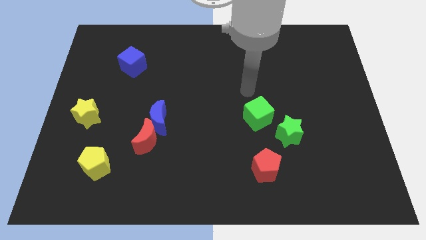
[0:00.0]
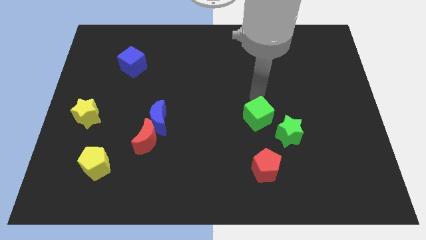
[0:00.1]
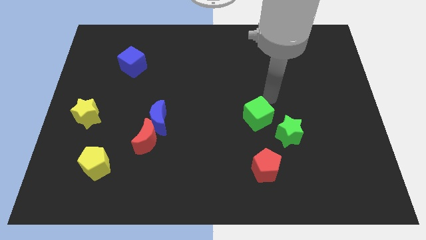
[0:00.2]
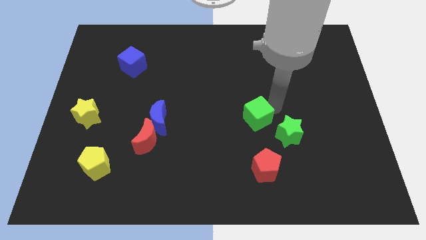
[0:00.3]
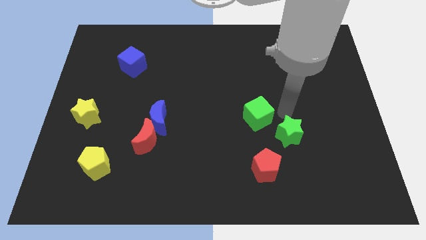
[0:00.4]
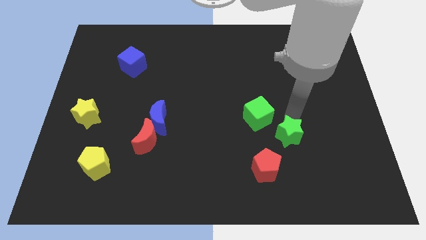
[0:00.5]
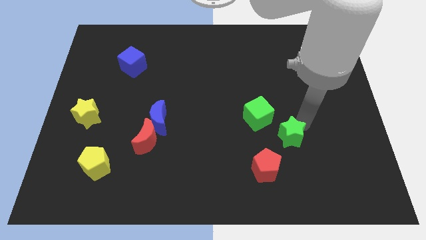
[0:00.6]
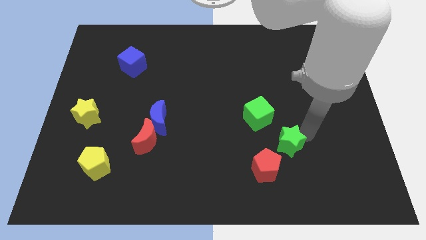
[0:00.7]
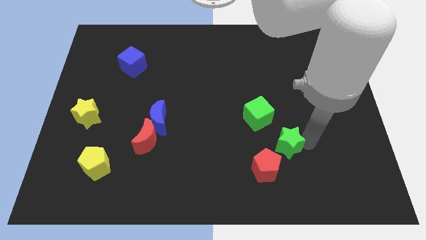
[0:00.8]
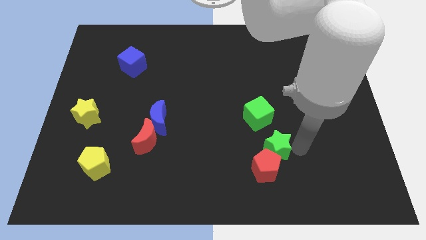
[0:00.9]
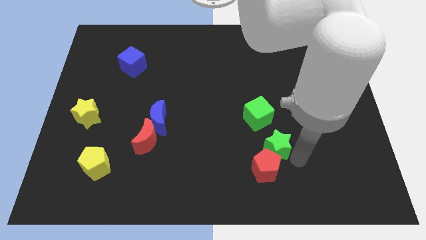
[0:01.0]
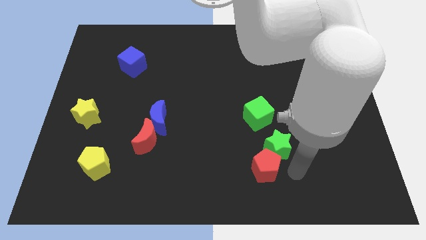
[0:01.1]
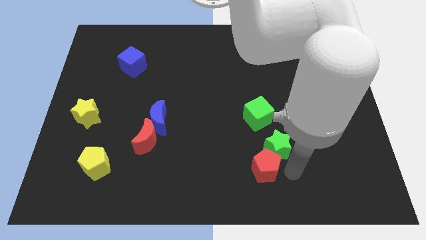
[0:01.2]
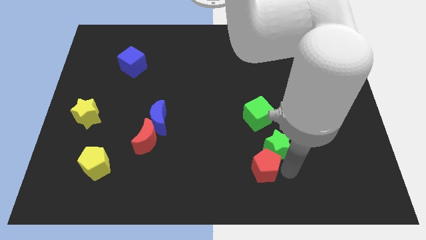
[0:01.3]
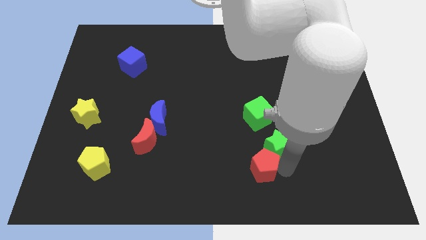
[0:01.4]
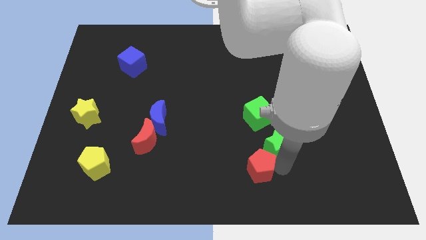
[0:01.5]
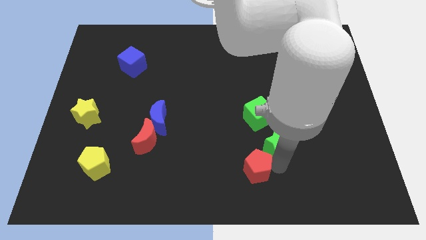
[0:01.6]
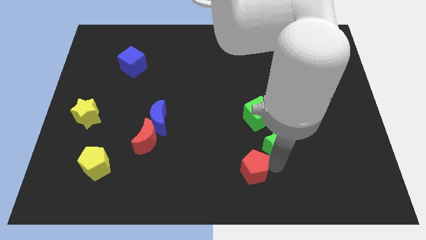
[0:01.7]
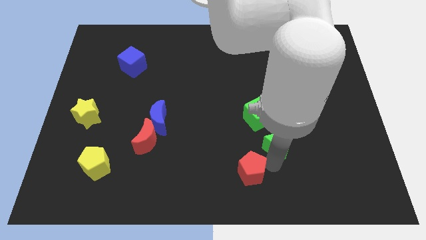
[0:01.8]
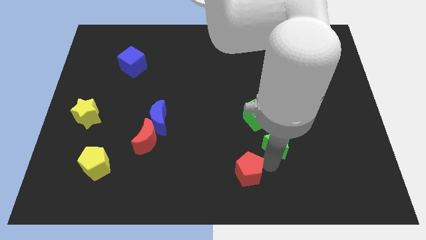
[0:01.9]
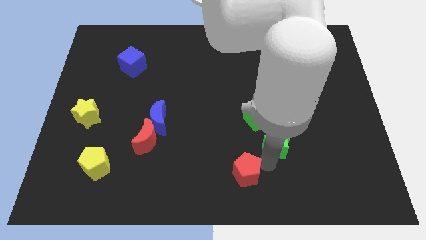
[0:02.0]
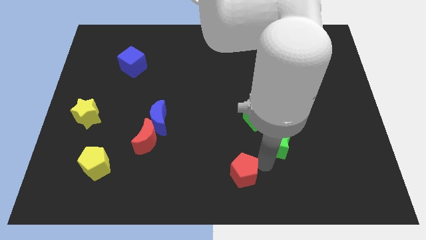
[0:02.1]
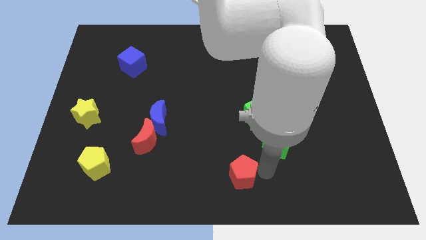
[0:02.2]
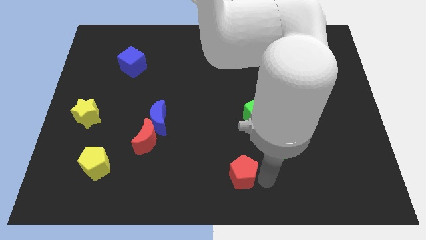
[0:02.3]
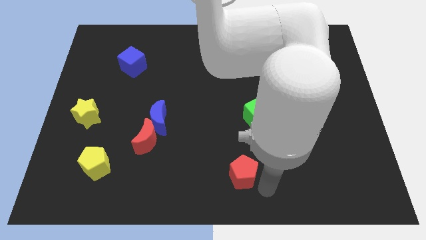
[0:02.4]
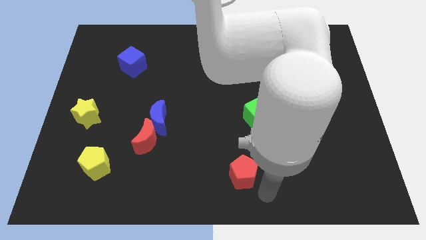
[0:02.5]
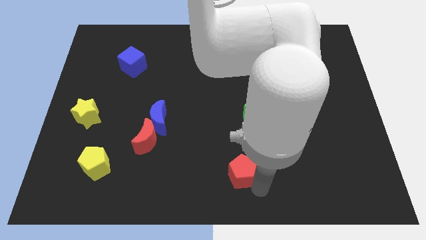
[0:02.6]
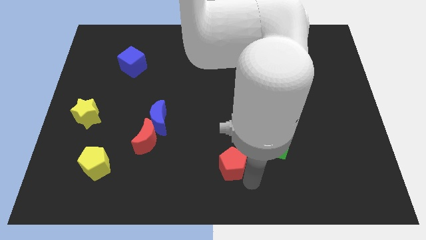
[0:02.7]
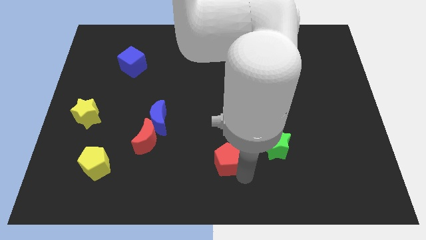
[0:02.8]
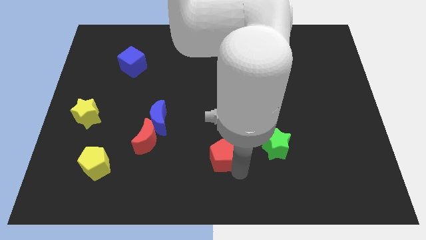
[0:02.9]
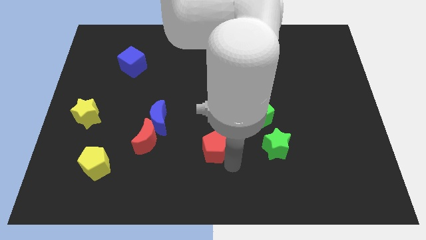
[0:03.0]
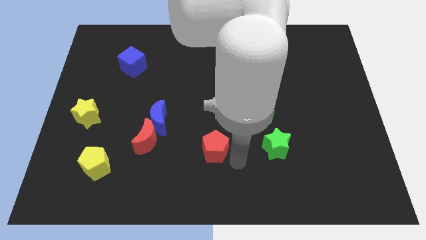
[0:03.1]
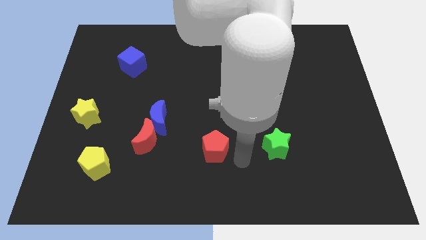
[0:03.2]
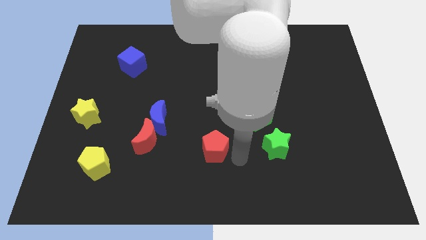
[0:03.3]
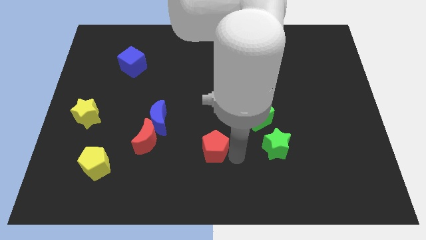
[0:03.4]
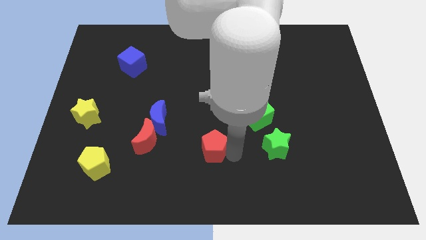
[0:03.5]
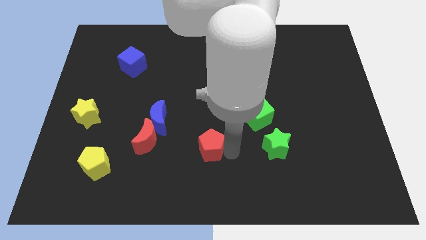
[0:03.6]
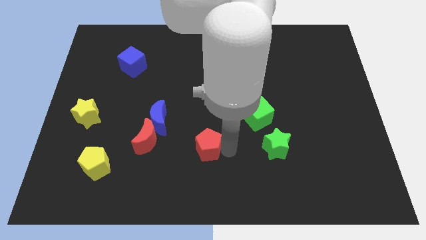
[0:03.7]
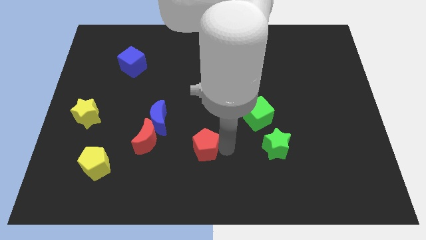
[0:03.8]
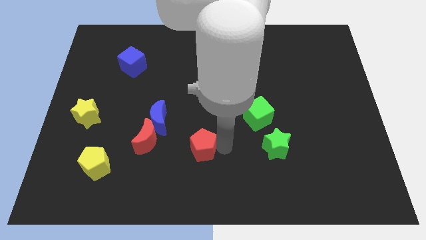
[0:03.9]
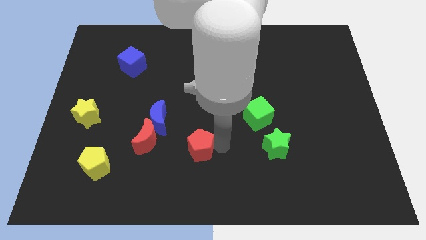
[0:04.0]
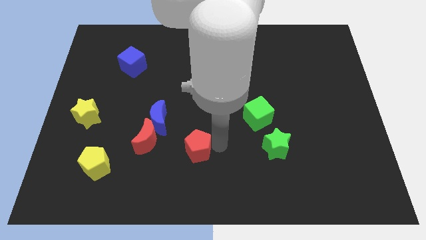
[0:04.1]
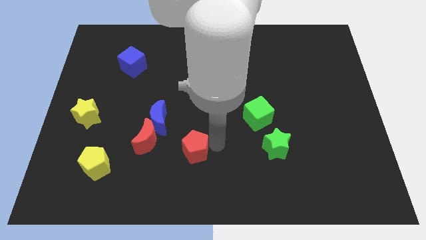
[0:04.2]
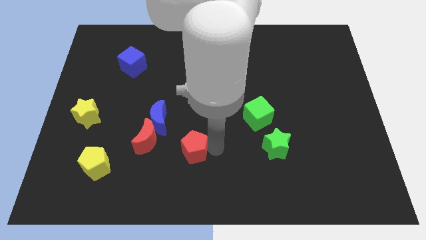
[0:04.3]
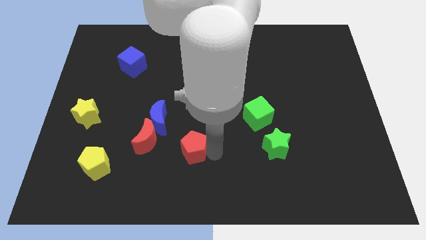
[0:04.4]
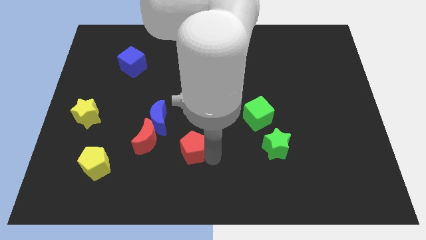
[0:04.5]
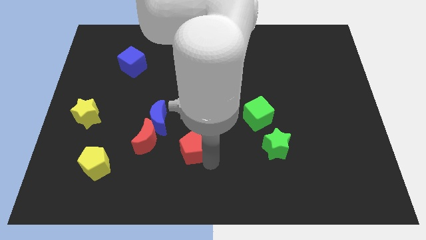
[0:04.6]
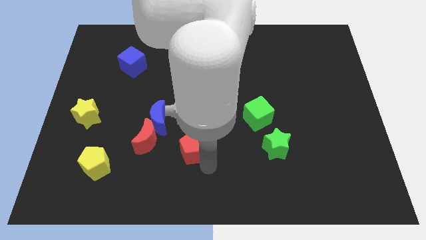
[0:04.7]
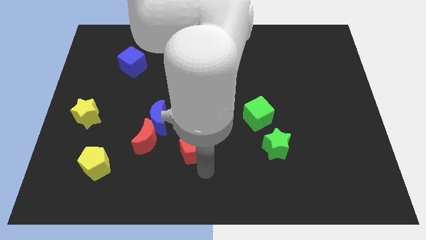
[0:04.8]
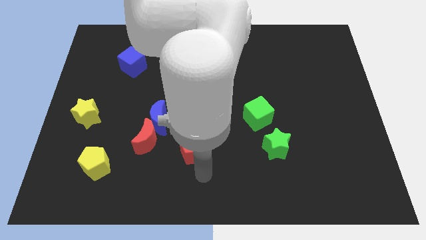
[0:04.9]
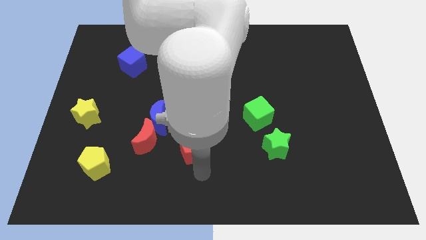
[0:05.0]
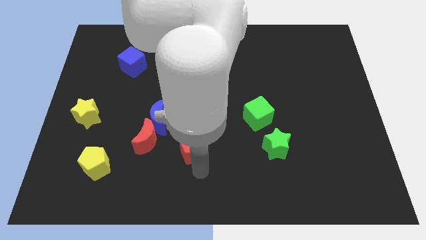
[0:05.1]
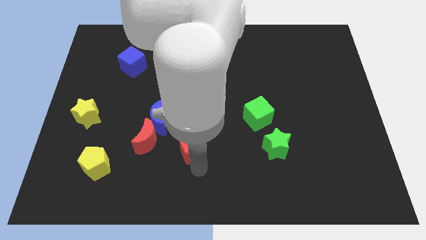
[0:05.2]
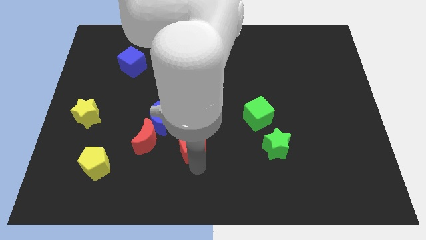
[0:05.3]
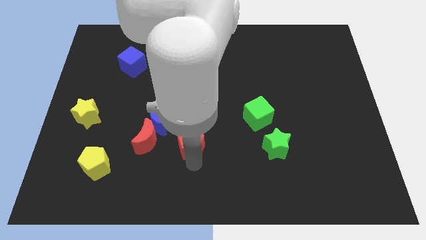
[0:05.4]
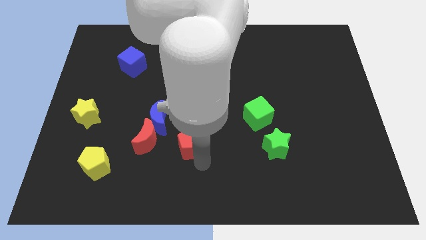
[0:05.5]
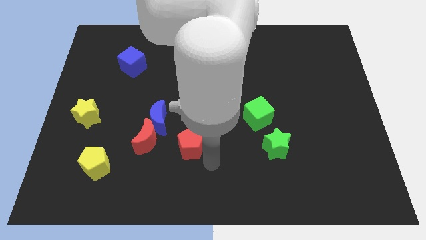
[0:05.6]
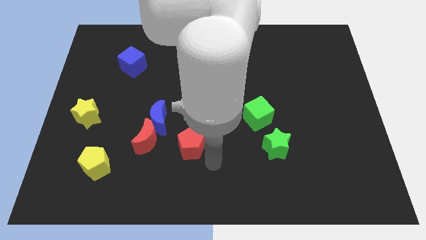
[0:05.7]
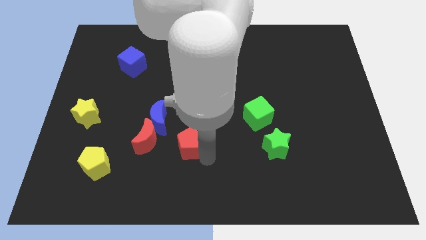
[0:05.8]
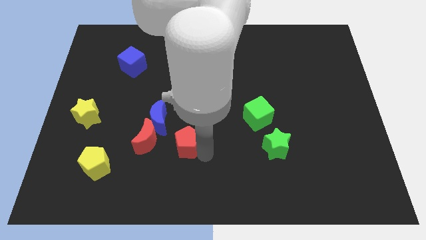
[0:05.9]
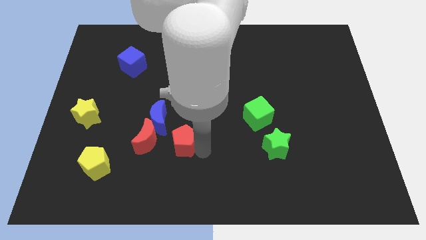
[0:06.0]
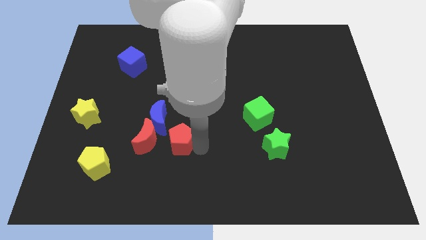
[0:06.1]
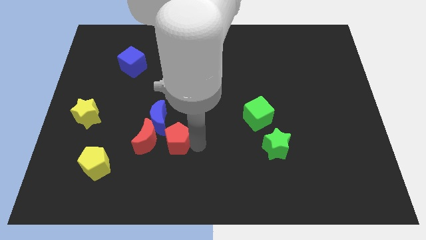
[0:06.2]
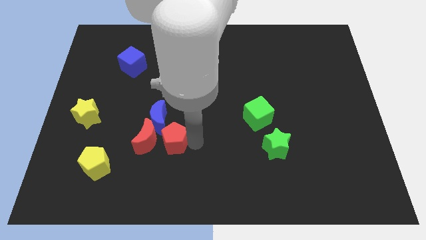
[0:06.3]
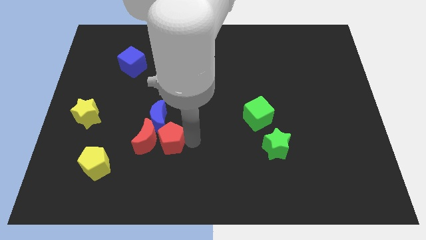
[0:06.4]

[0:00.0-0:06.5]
slide the red pentagon close to the blue moon

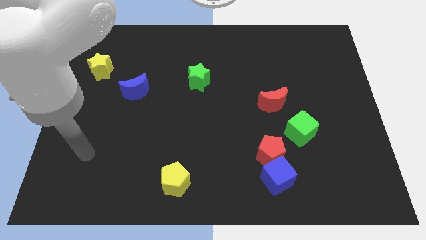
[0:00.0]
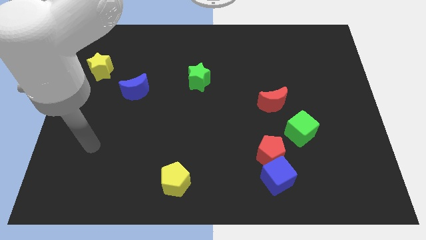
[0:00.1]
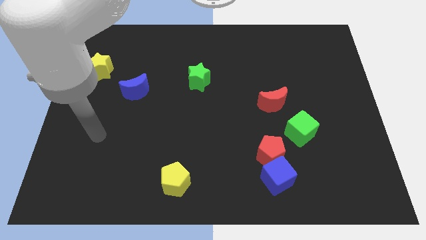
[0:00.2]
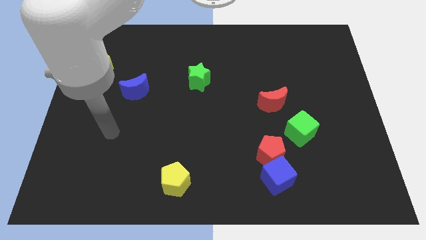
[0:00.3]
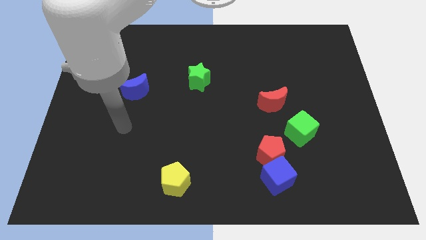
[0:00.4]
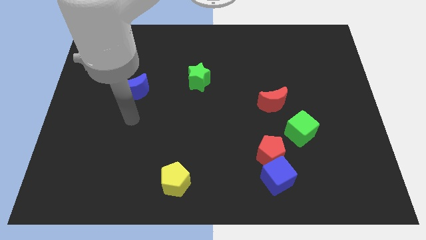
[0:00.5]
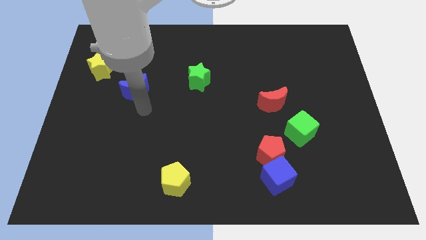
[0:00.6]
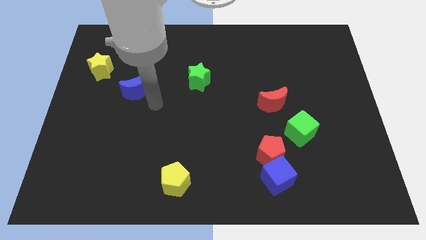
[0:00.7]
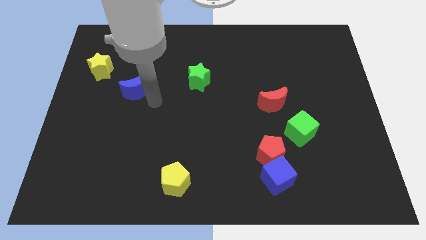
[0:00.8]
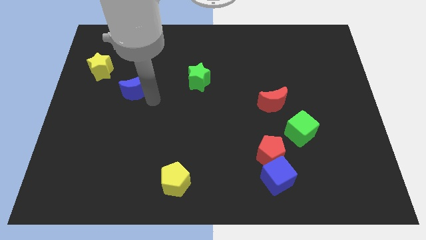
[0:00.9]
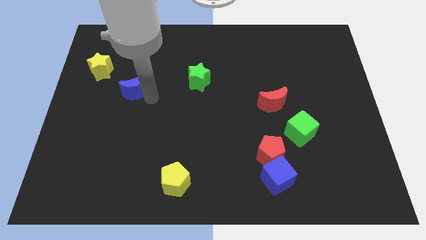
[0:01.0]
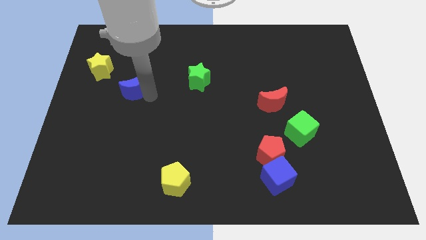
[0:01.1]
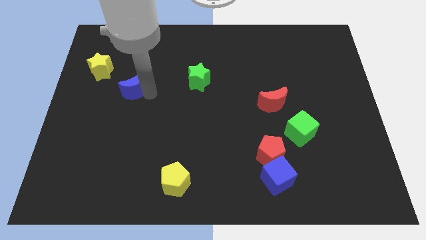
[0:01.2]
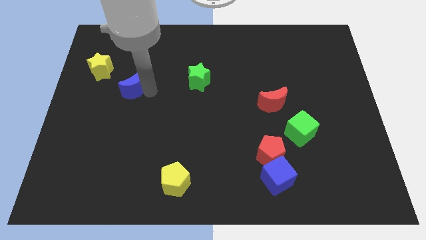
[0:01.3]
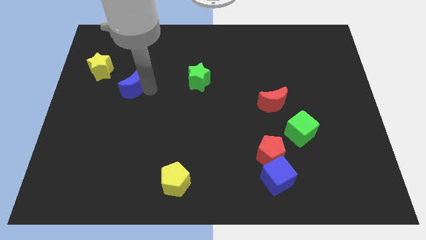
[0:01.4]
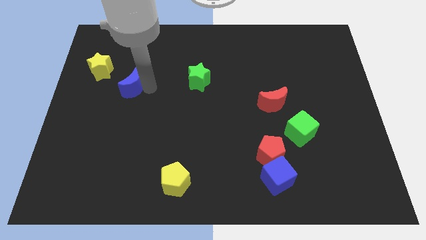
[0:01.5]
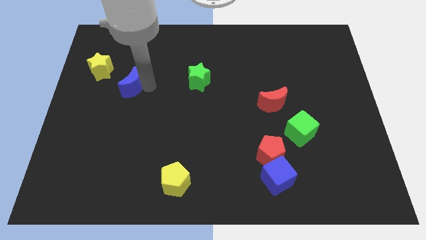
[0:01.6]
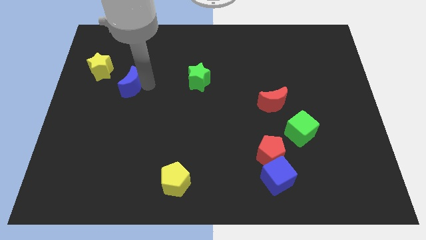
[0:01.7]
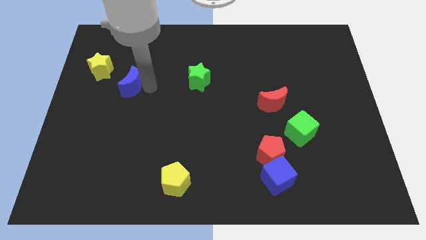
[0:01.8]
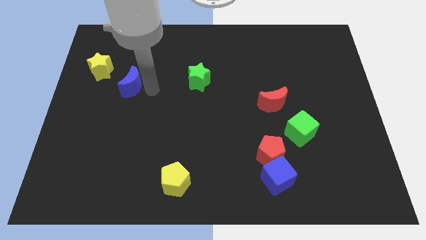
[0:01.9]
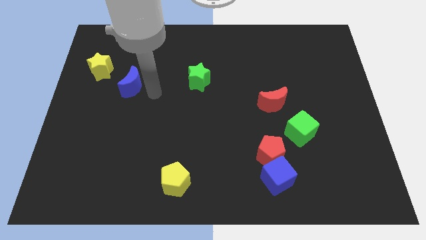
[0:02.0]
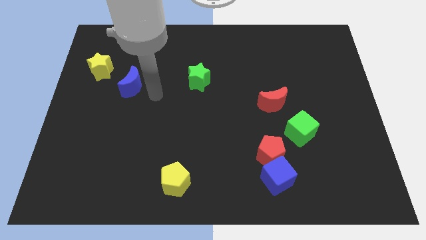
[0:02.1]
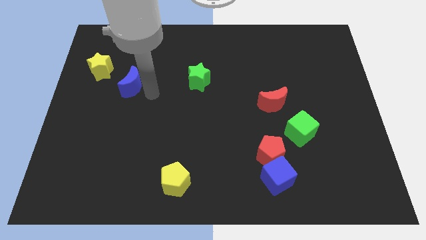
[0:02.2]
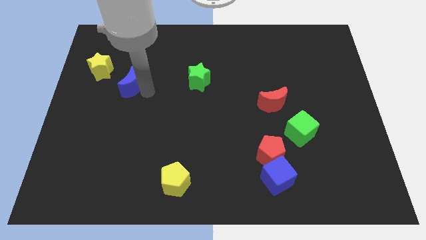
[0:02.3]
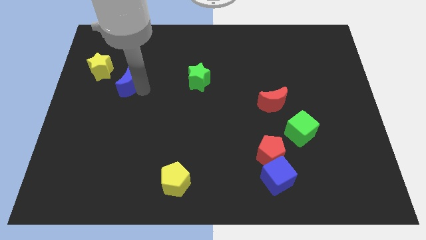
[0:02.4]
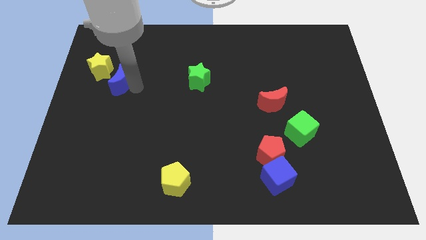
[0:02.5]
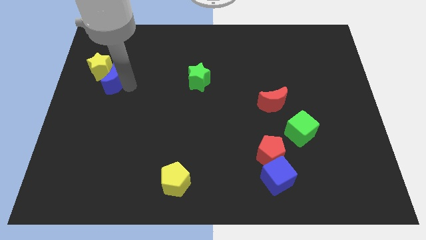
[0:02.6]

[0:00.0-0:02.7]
put the blue moon to the yellow star
